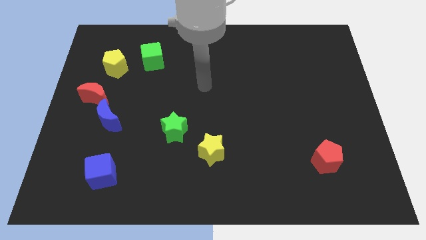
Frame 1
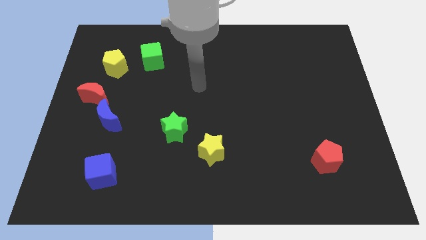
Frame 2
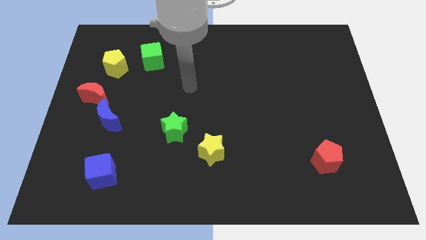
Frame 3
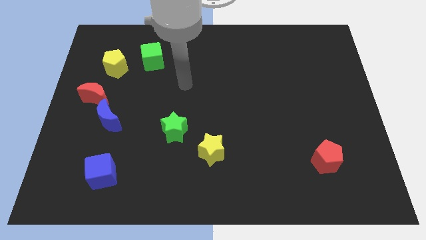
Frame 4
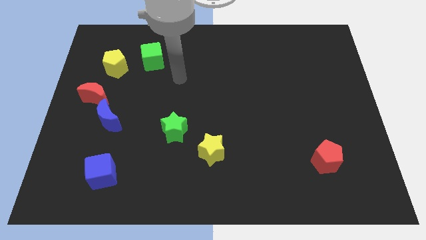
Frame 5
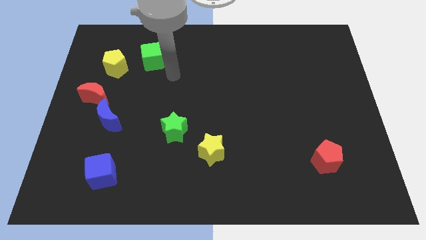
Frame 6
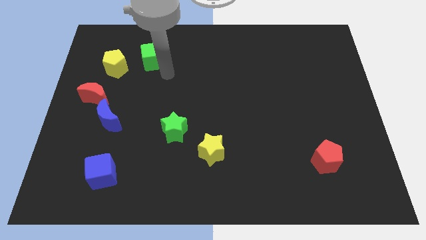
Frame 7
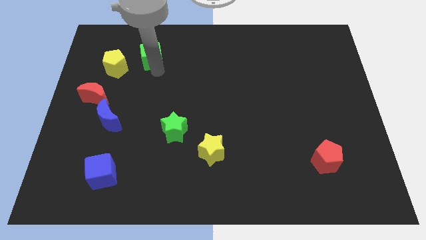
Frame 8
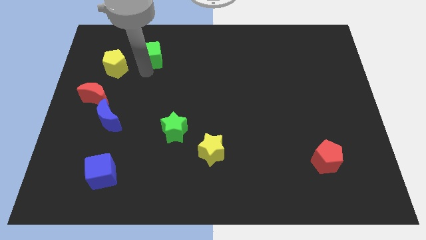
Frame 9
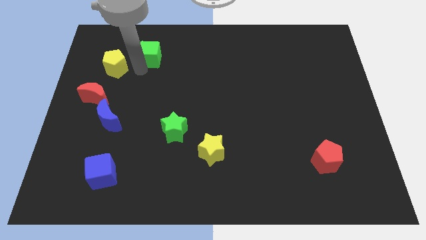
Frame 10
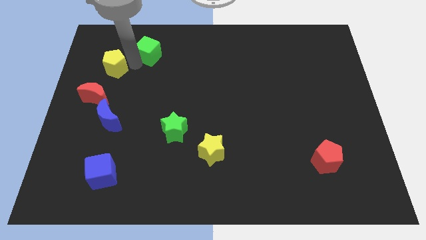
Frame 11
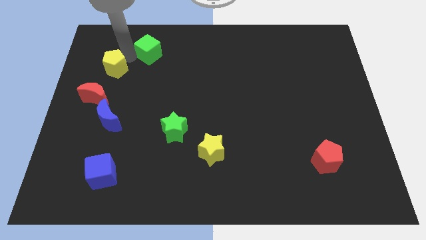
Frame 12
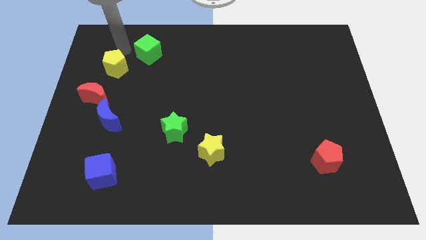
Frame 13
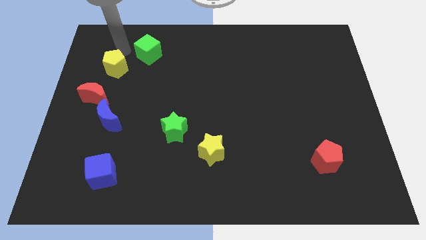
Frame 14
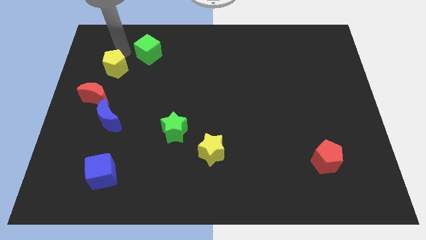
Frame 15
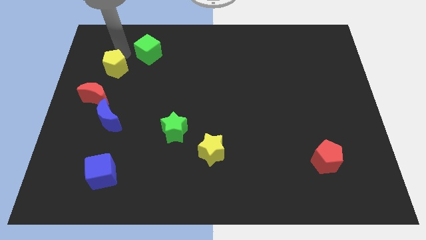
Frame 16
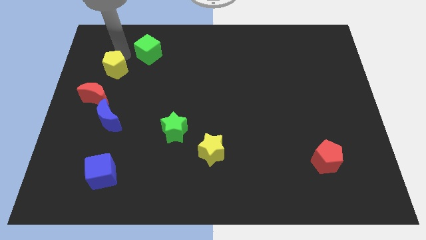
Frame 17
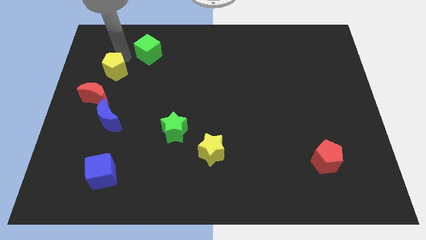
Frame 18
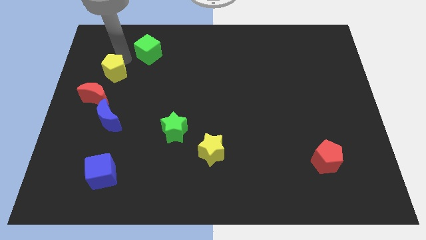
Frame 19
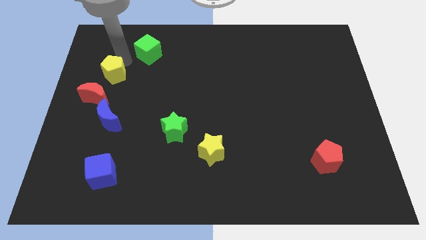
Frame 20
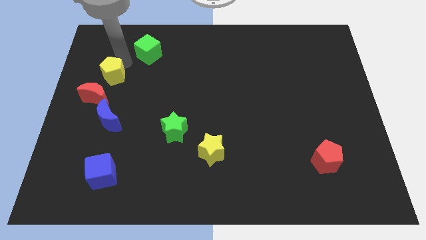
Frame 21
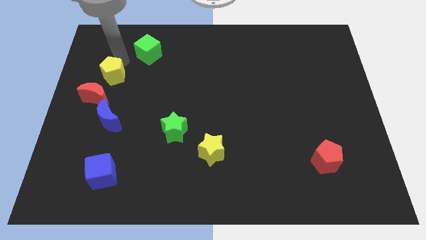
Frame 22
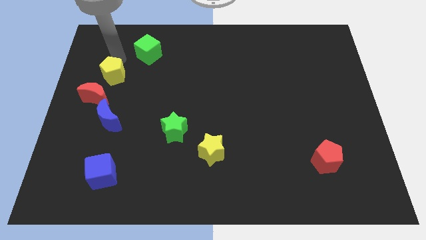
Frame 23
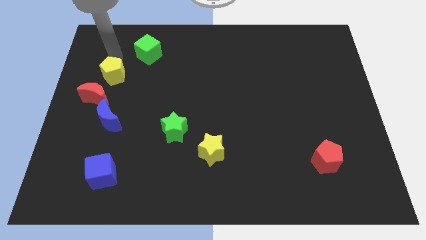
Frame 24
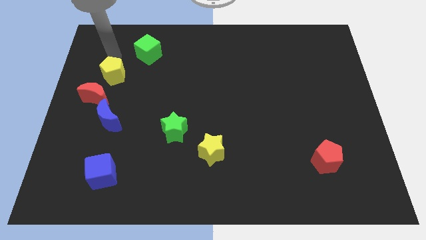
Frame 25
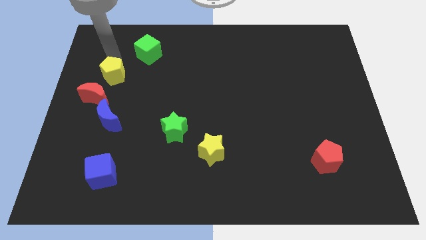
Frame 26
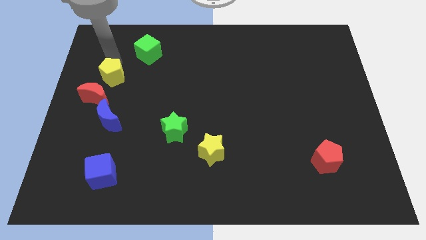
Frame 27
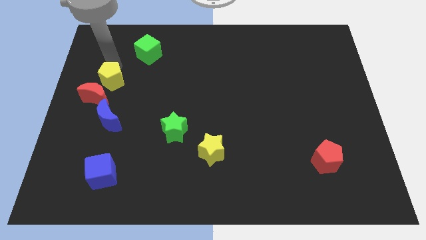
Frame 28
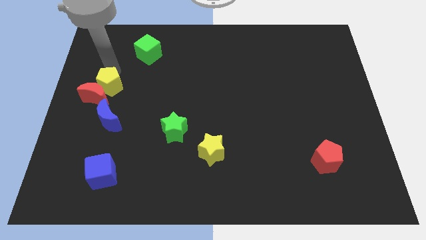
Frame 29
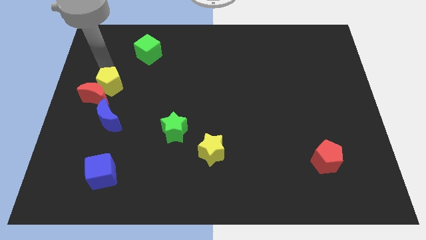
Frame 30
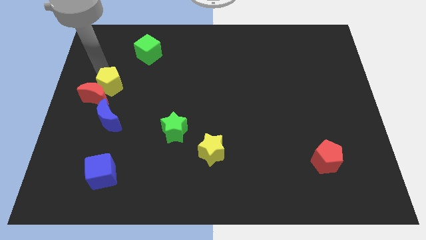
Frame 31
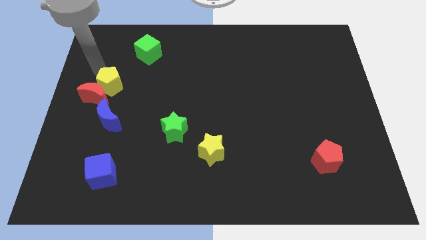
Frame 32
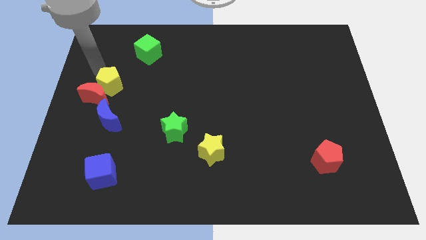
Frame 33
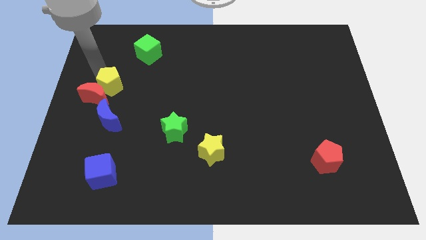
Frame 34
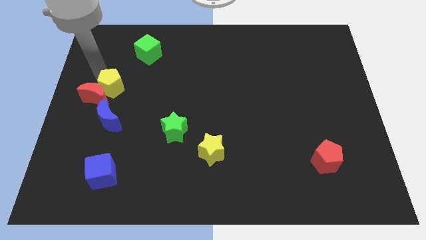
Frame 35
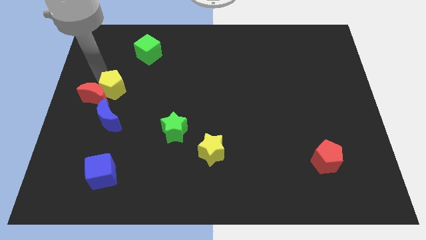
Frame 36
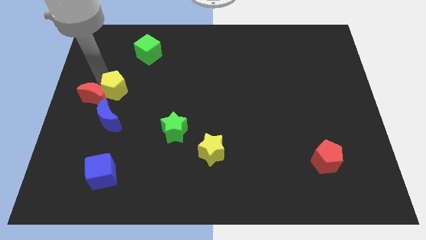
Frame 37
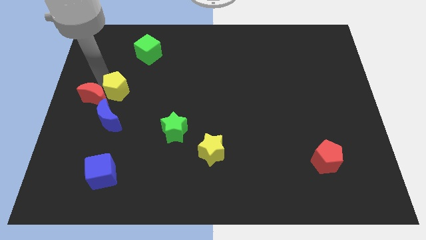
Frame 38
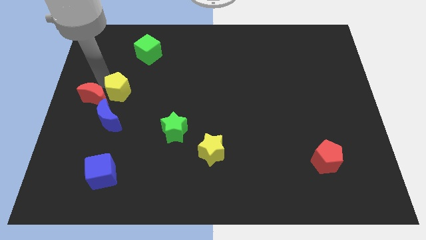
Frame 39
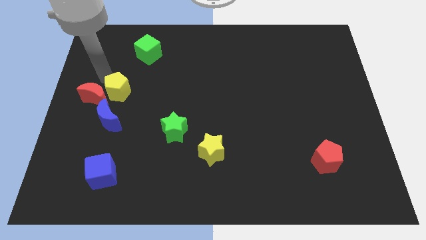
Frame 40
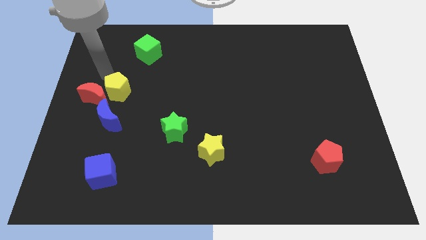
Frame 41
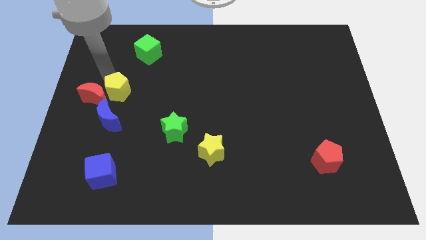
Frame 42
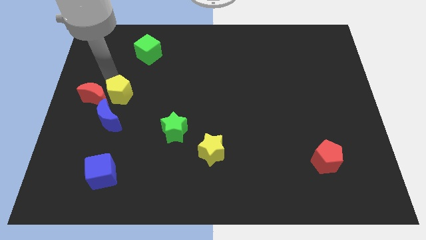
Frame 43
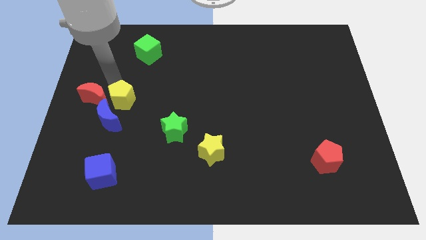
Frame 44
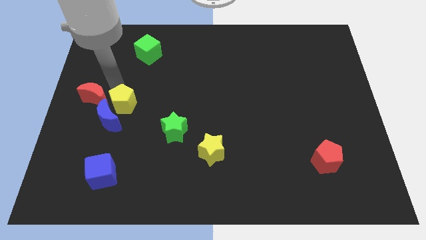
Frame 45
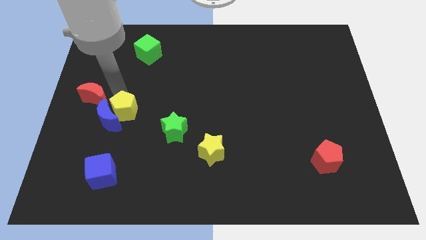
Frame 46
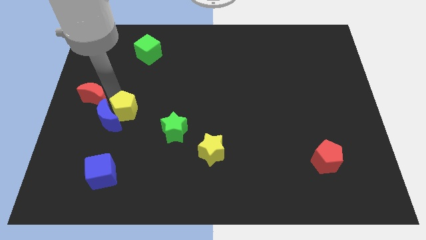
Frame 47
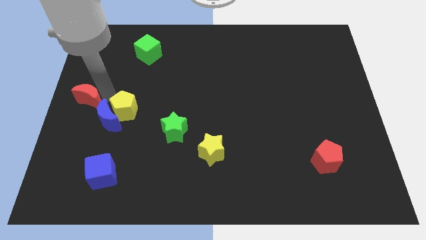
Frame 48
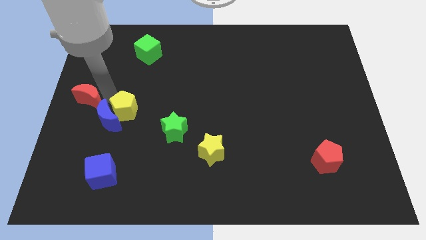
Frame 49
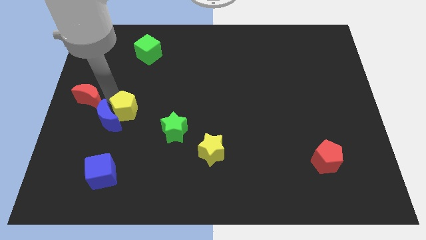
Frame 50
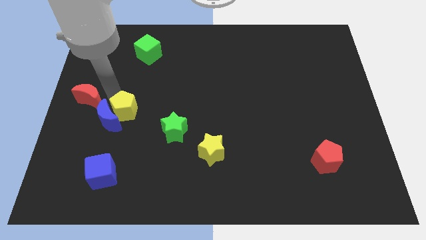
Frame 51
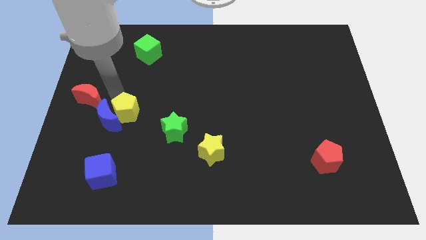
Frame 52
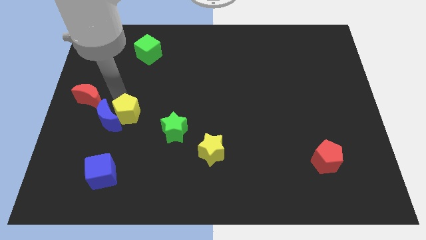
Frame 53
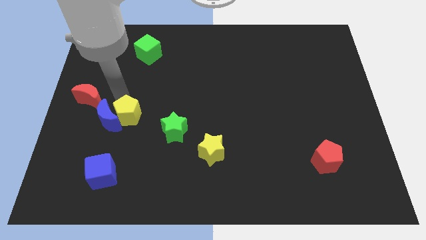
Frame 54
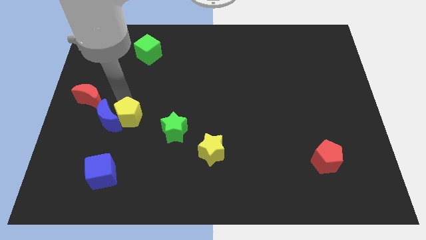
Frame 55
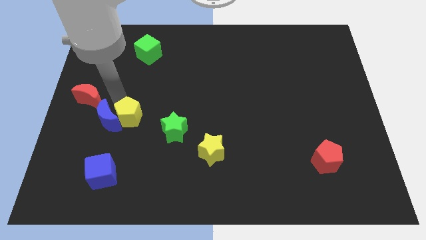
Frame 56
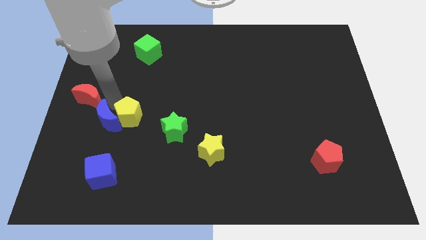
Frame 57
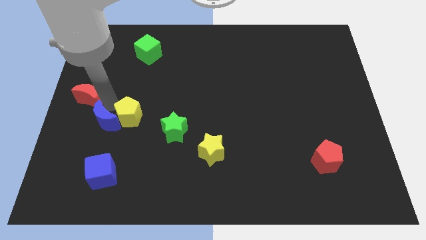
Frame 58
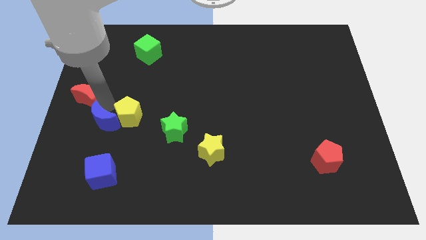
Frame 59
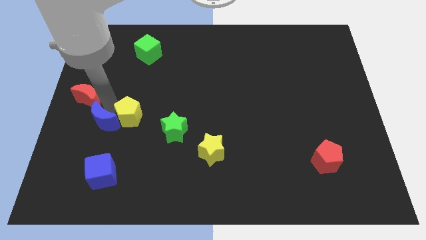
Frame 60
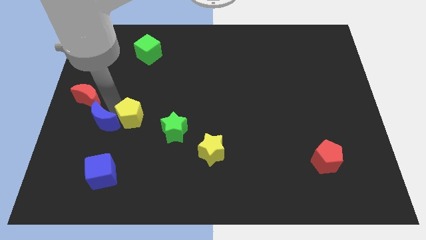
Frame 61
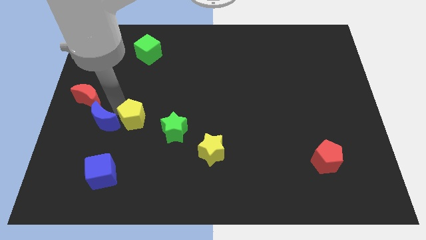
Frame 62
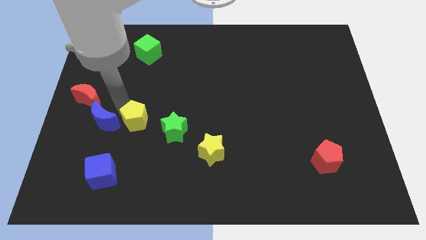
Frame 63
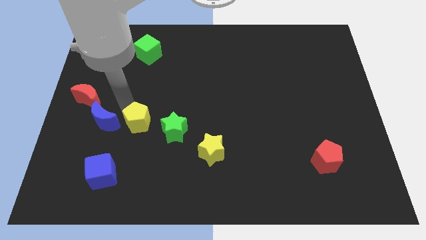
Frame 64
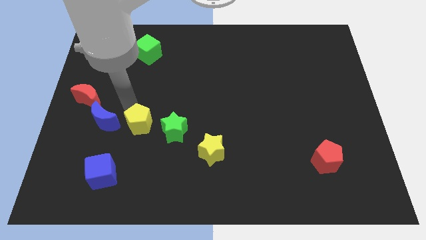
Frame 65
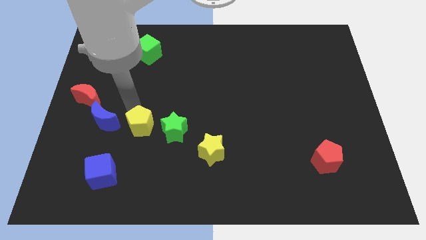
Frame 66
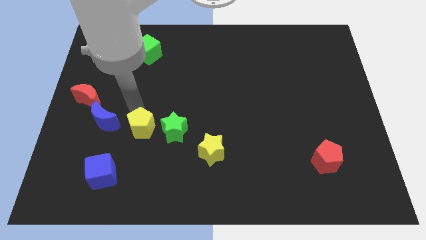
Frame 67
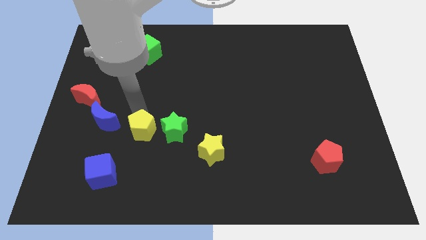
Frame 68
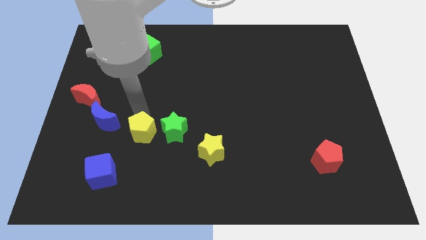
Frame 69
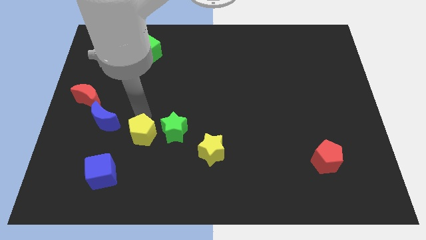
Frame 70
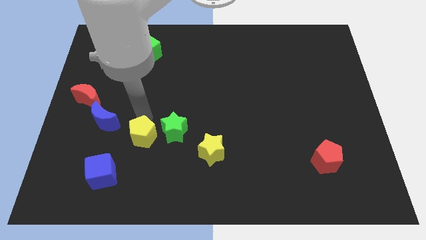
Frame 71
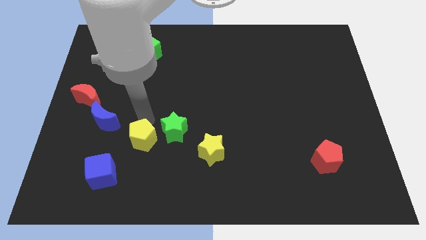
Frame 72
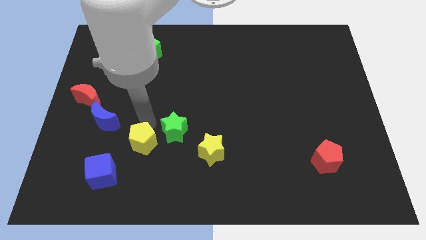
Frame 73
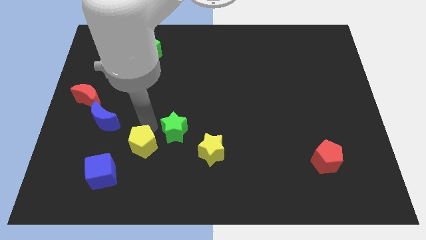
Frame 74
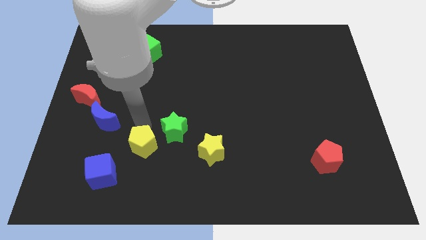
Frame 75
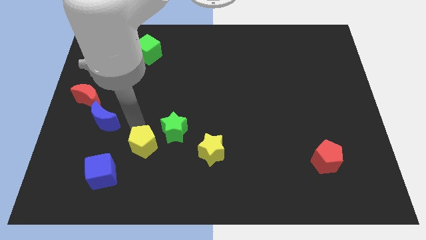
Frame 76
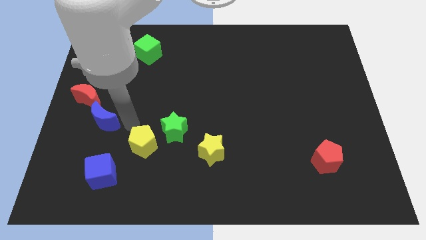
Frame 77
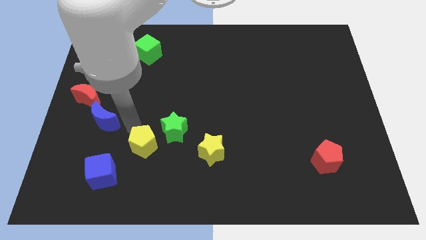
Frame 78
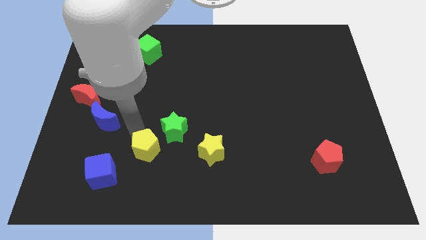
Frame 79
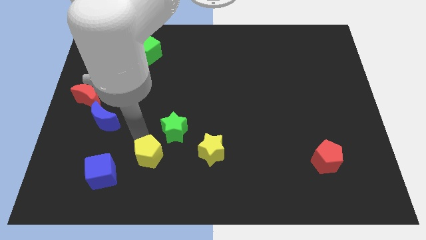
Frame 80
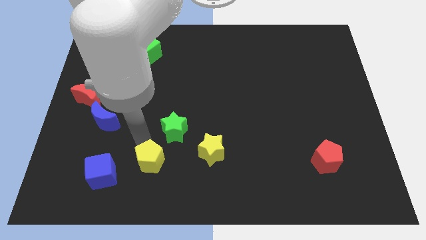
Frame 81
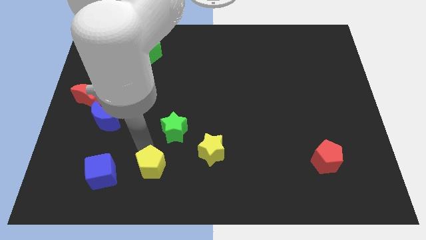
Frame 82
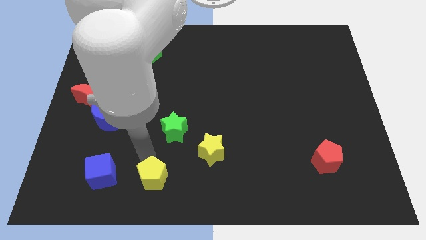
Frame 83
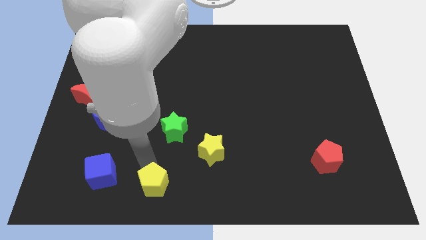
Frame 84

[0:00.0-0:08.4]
put the yellow pentagon to the bottom side
